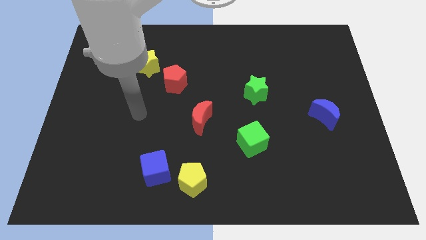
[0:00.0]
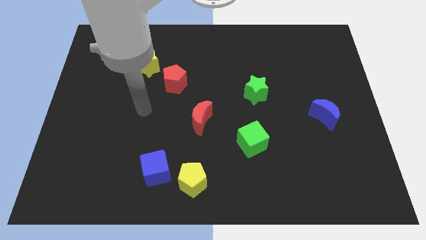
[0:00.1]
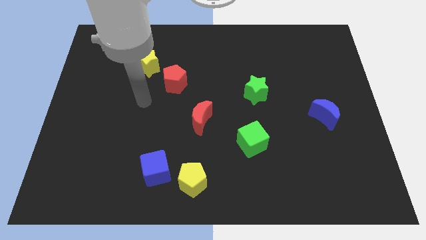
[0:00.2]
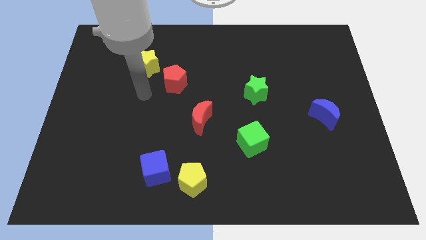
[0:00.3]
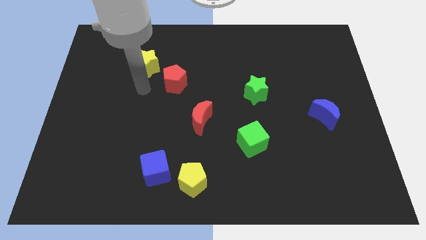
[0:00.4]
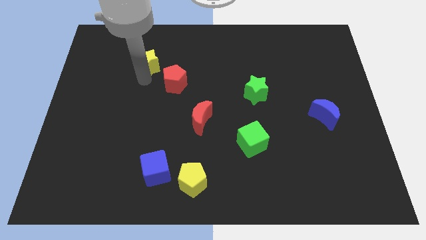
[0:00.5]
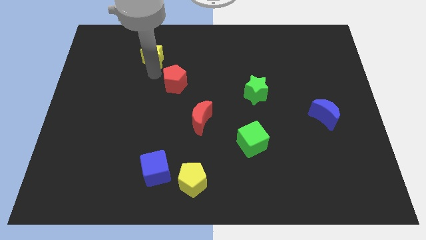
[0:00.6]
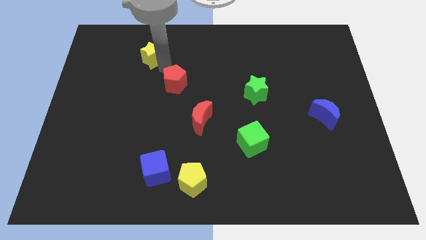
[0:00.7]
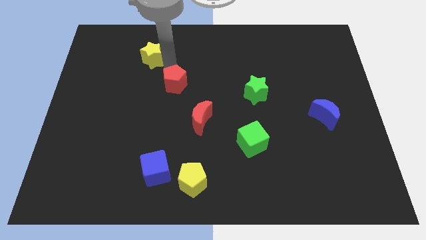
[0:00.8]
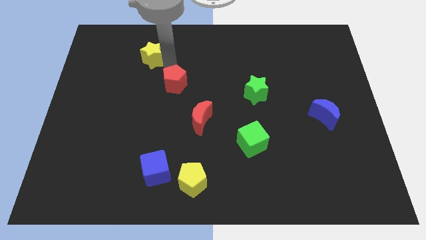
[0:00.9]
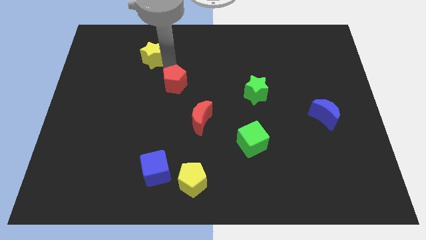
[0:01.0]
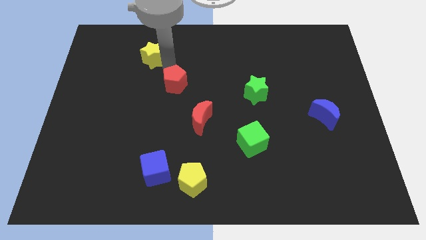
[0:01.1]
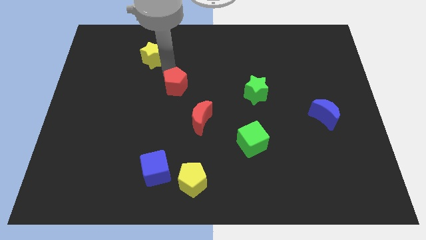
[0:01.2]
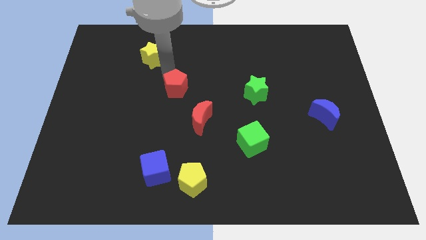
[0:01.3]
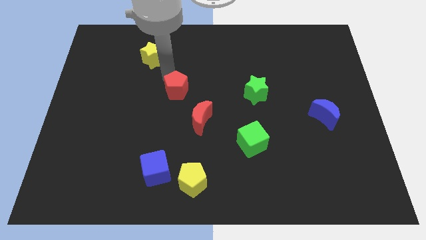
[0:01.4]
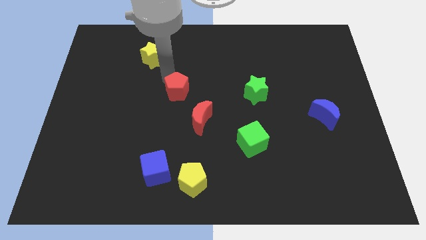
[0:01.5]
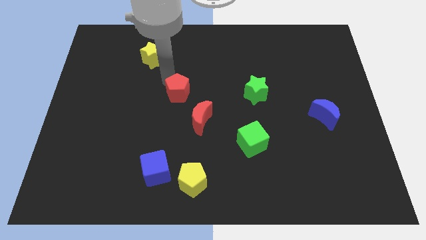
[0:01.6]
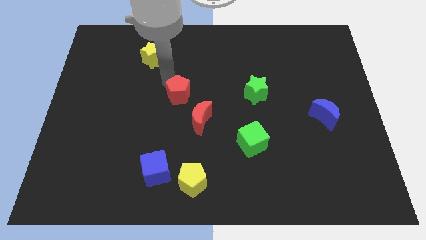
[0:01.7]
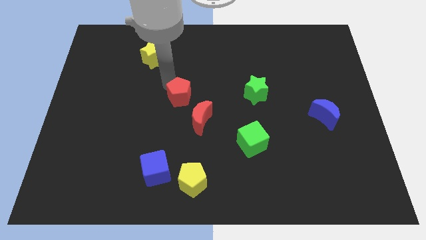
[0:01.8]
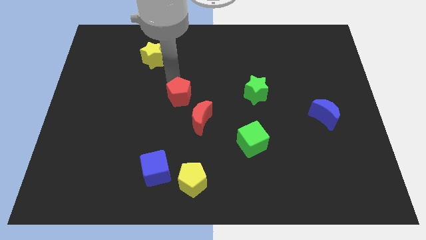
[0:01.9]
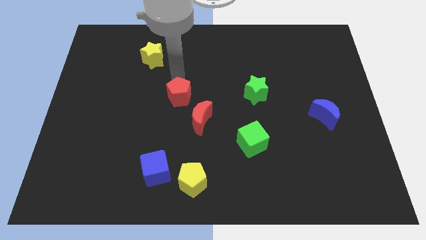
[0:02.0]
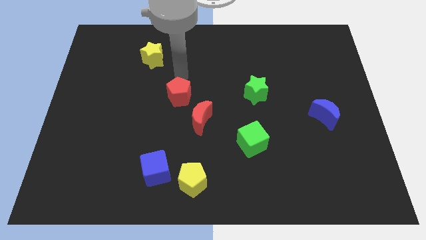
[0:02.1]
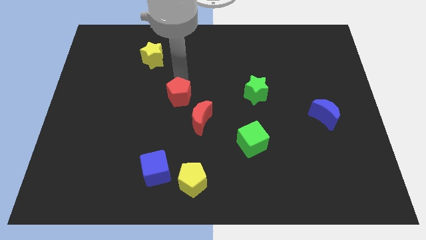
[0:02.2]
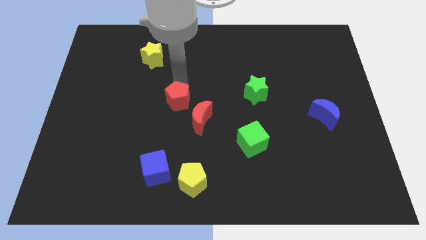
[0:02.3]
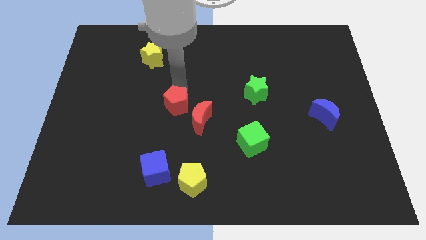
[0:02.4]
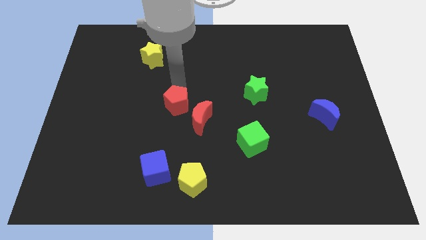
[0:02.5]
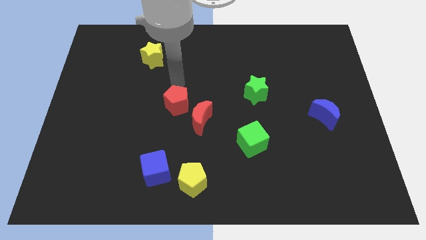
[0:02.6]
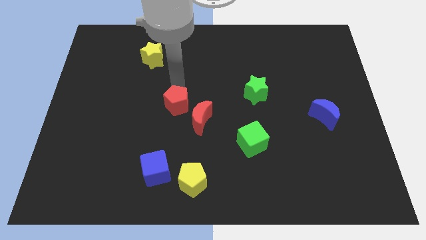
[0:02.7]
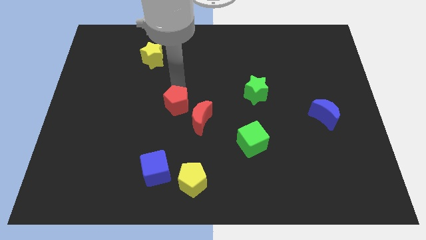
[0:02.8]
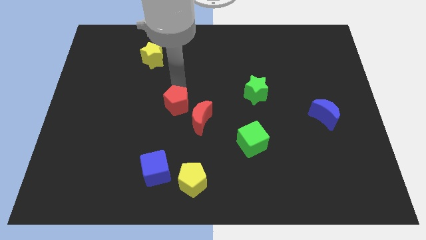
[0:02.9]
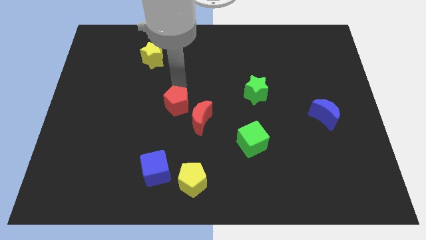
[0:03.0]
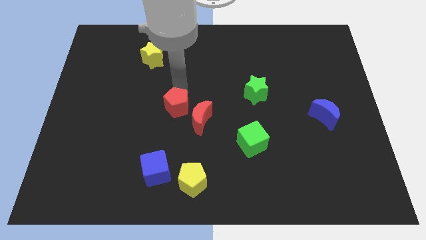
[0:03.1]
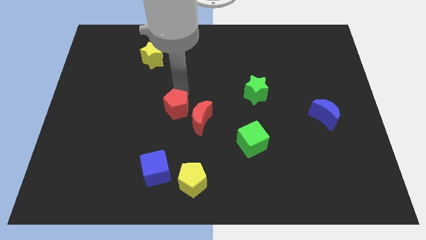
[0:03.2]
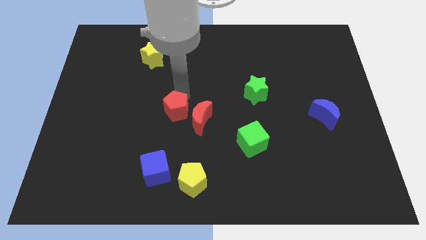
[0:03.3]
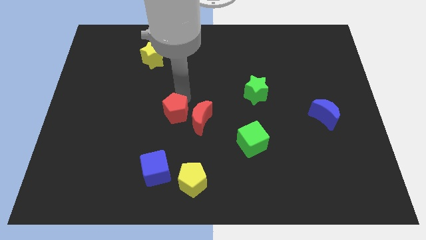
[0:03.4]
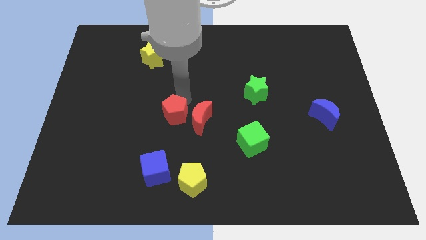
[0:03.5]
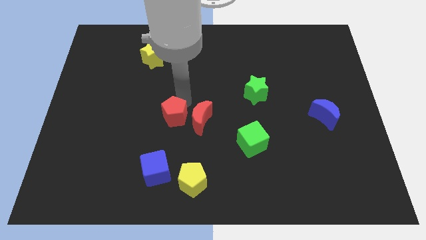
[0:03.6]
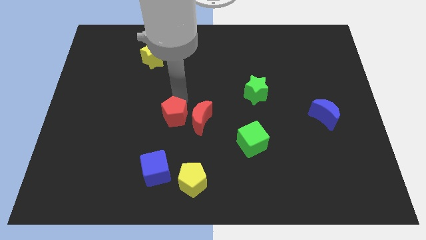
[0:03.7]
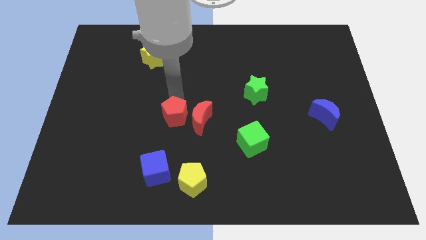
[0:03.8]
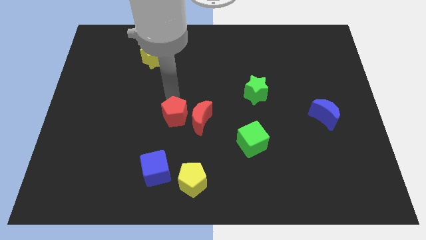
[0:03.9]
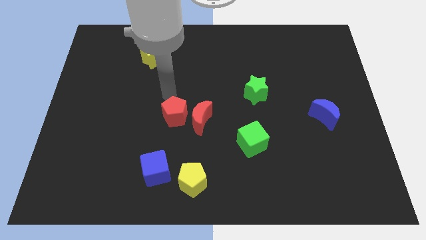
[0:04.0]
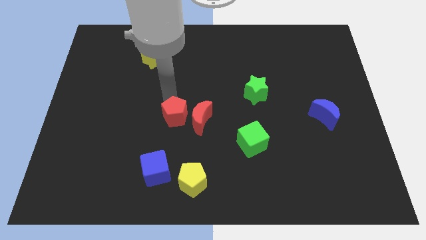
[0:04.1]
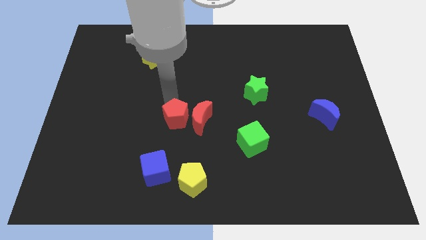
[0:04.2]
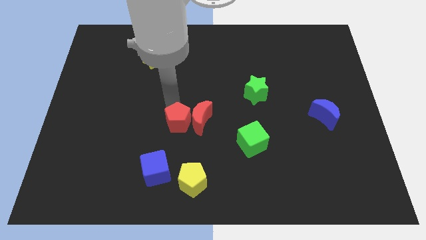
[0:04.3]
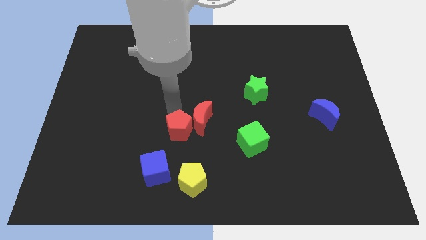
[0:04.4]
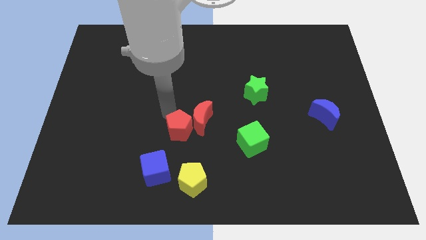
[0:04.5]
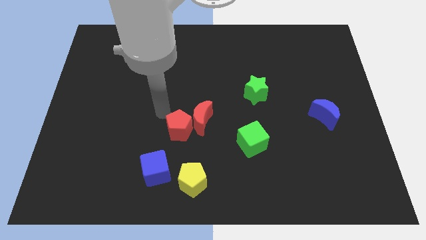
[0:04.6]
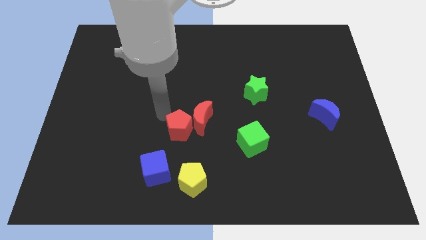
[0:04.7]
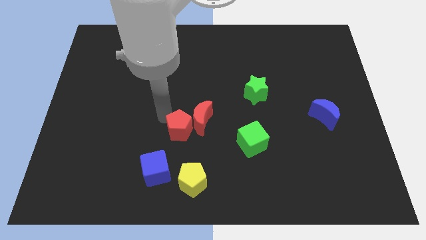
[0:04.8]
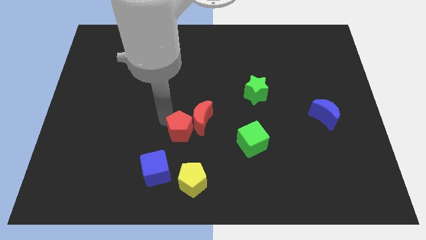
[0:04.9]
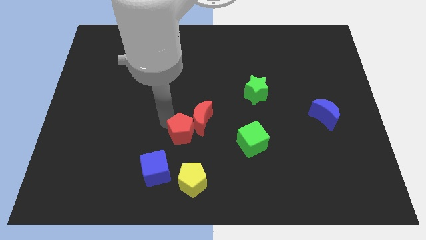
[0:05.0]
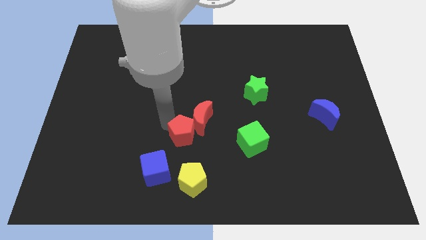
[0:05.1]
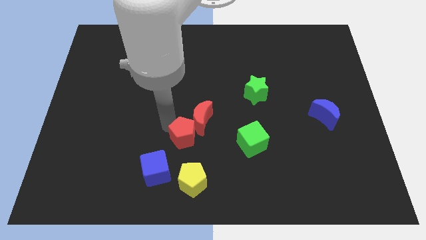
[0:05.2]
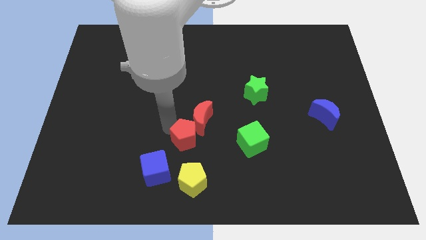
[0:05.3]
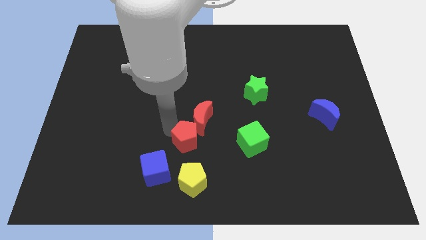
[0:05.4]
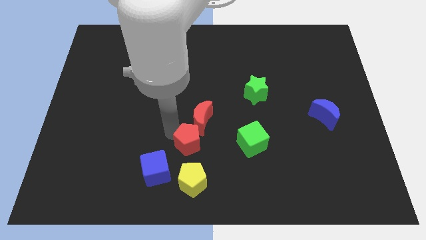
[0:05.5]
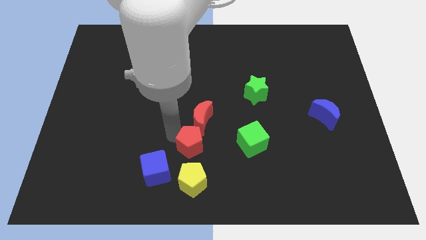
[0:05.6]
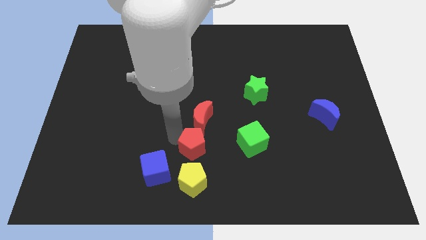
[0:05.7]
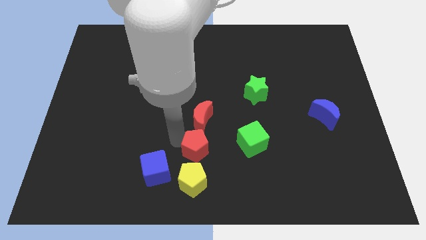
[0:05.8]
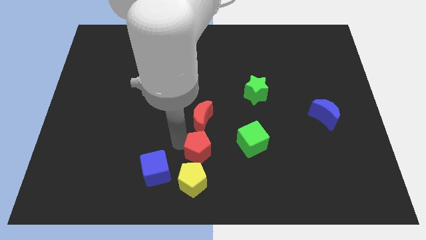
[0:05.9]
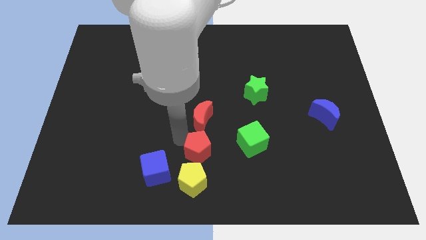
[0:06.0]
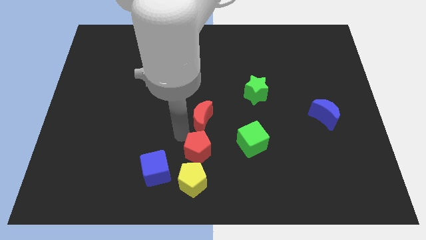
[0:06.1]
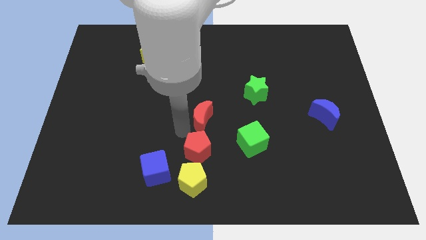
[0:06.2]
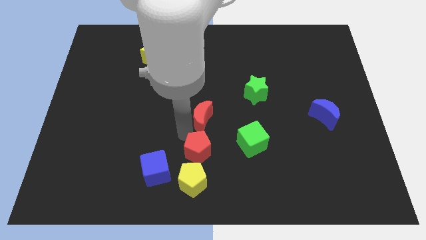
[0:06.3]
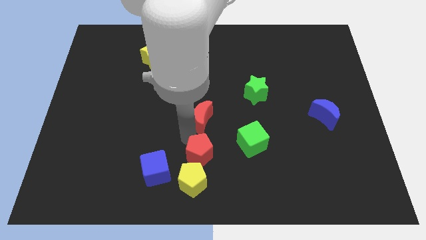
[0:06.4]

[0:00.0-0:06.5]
put the red pentagon to the bottom side
